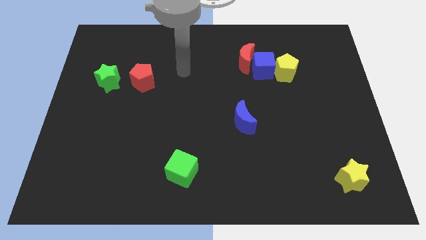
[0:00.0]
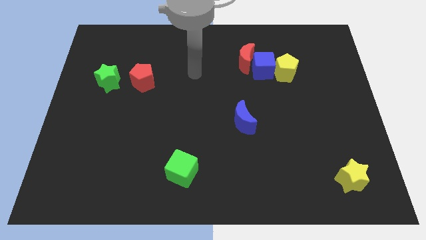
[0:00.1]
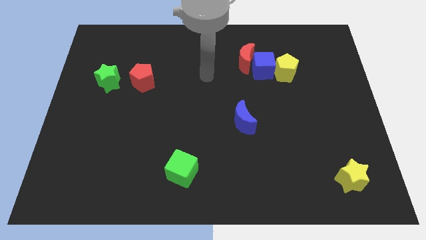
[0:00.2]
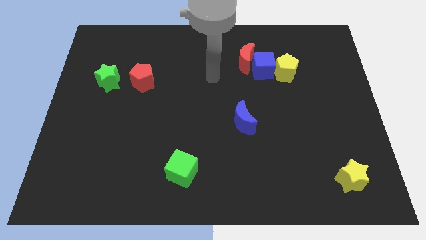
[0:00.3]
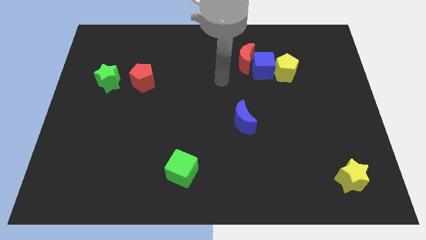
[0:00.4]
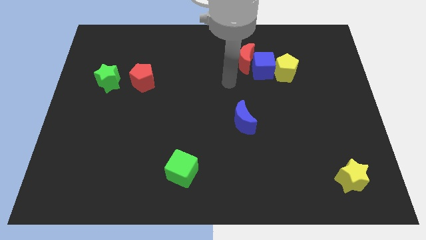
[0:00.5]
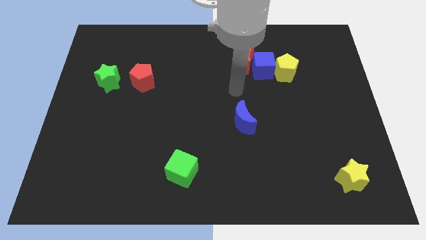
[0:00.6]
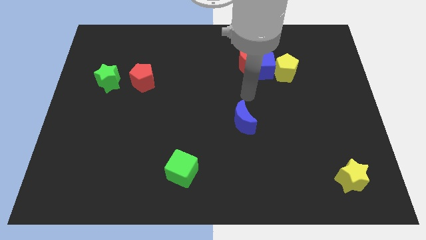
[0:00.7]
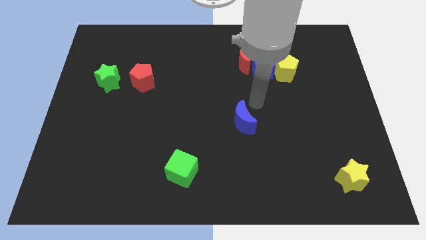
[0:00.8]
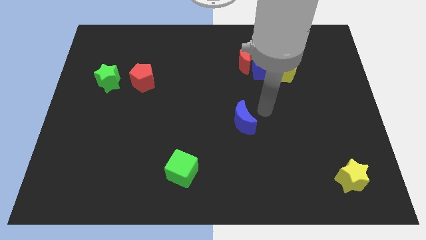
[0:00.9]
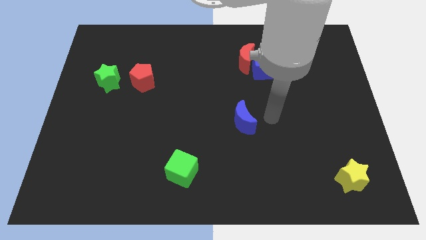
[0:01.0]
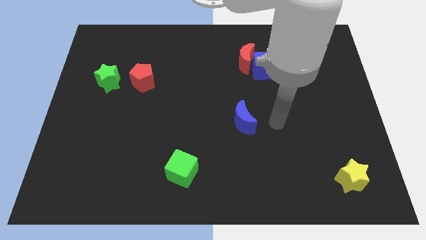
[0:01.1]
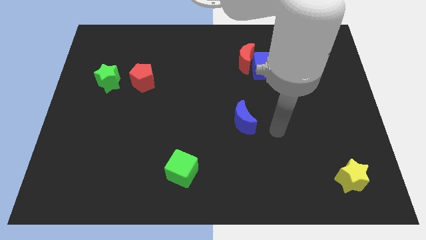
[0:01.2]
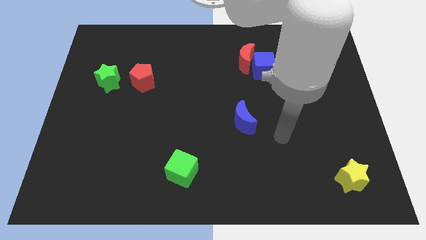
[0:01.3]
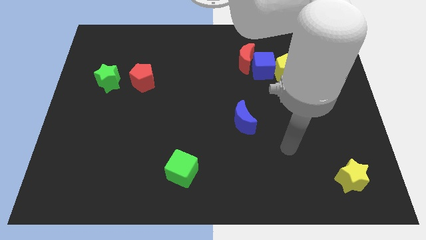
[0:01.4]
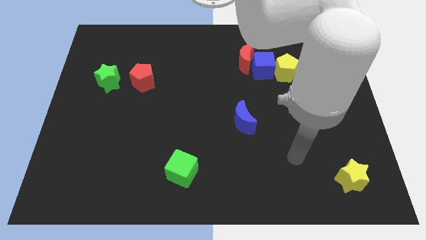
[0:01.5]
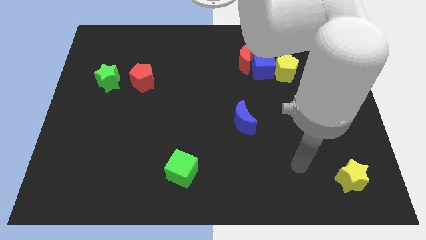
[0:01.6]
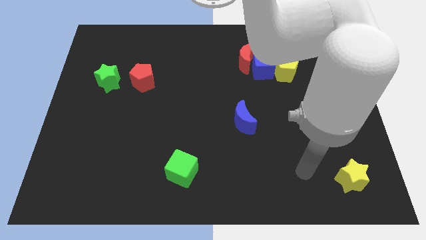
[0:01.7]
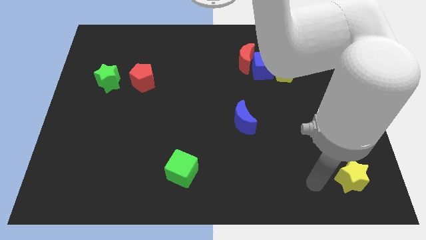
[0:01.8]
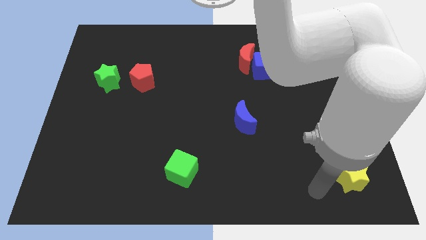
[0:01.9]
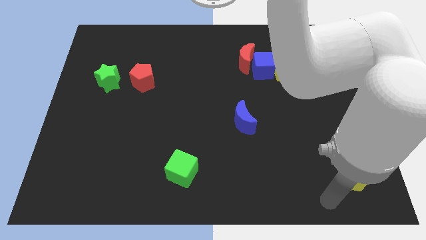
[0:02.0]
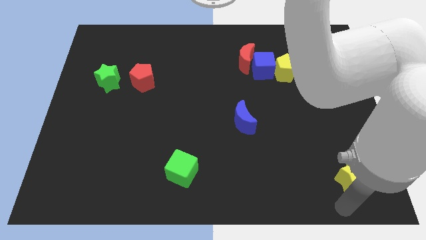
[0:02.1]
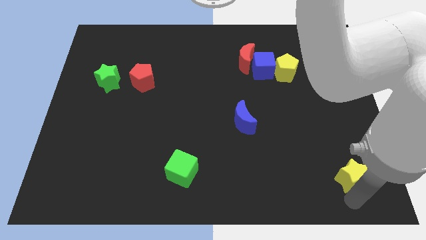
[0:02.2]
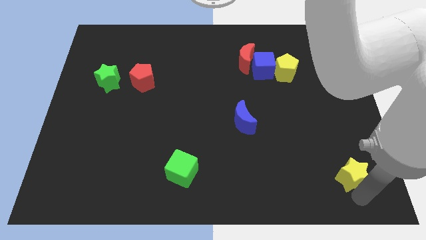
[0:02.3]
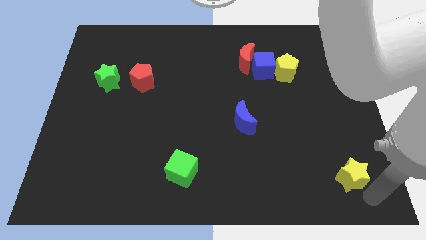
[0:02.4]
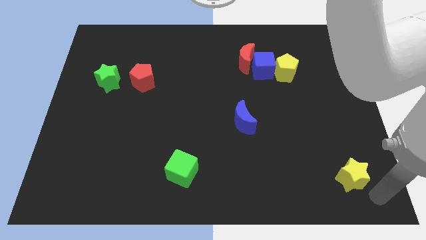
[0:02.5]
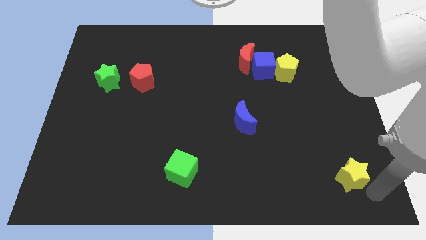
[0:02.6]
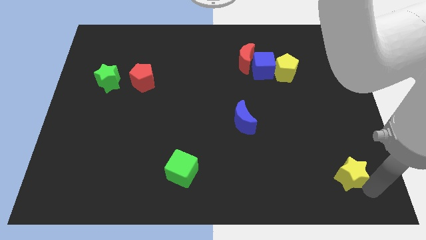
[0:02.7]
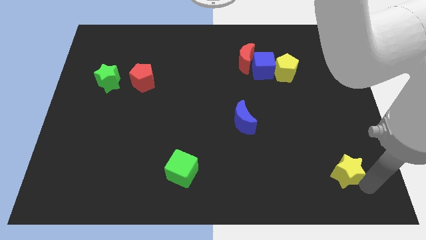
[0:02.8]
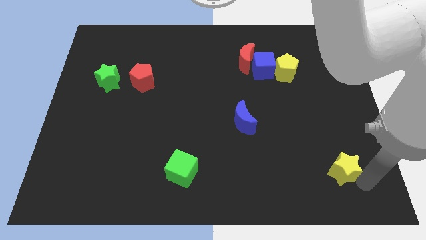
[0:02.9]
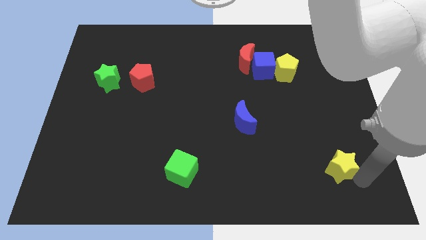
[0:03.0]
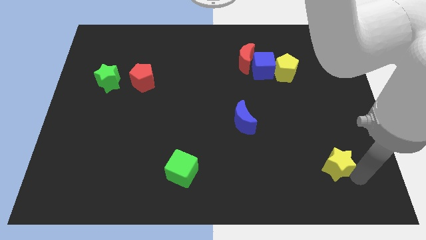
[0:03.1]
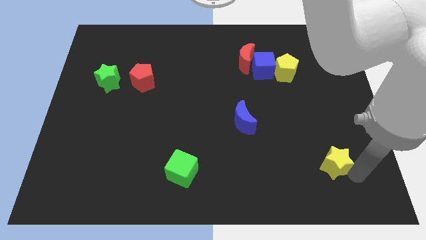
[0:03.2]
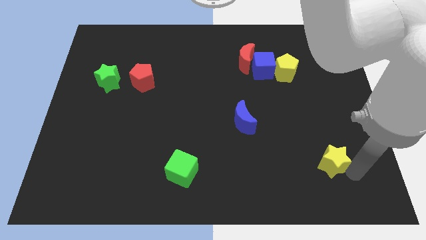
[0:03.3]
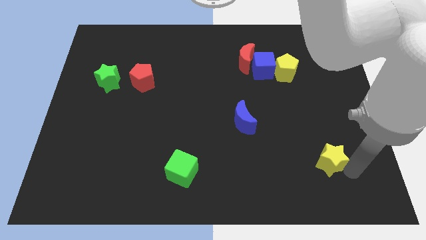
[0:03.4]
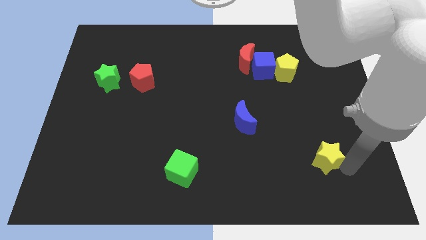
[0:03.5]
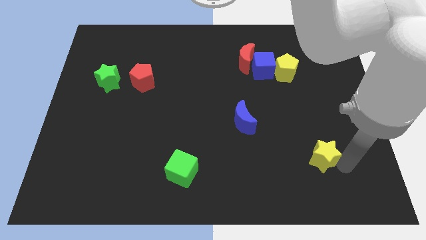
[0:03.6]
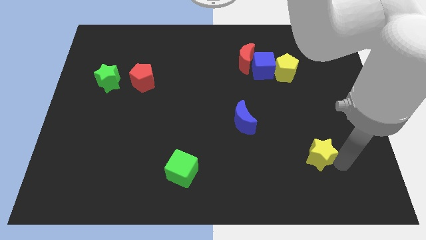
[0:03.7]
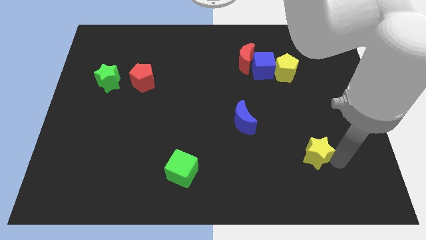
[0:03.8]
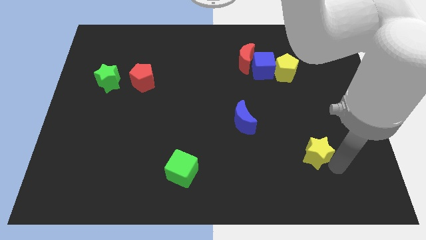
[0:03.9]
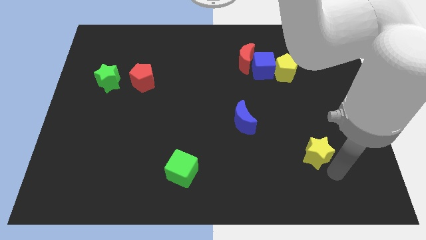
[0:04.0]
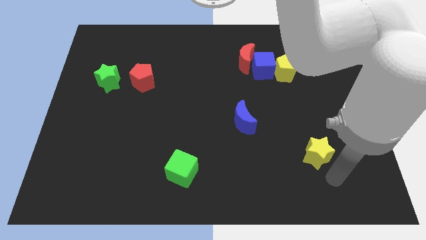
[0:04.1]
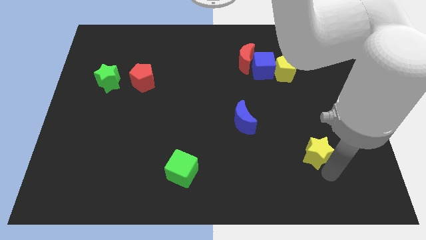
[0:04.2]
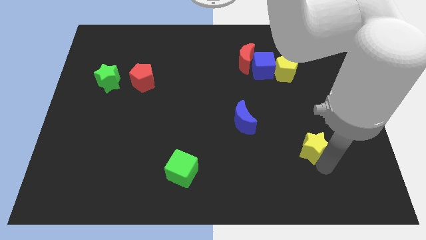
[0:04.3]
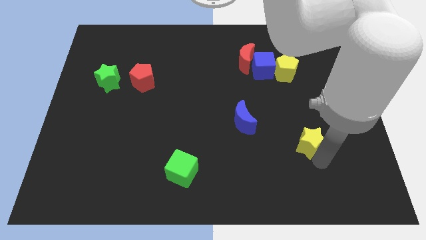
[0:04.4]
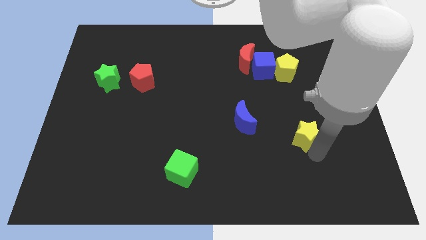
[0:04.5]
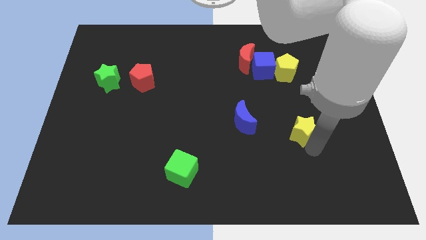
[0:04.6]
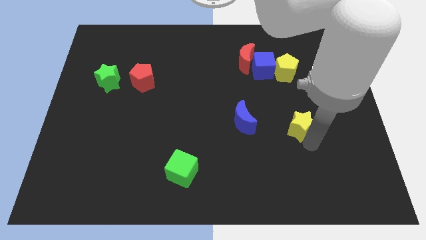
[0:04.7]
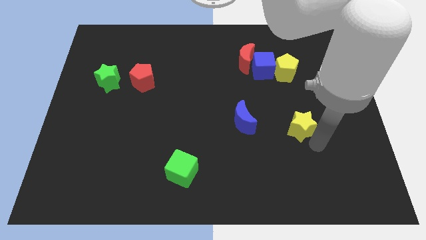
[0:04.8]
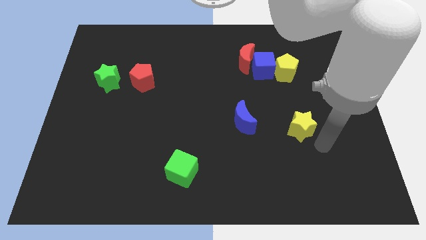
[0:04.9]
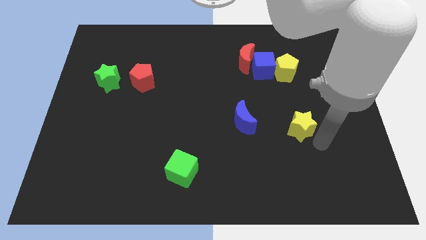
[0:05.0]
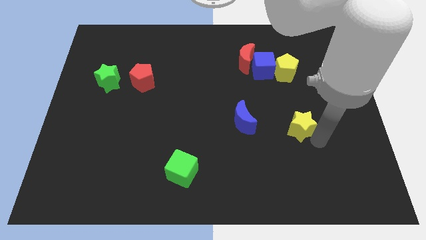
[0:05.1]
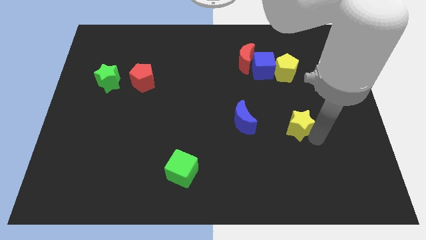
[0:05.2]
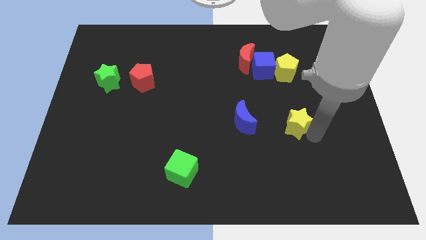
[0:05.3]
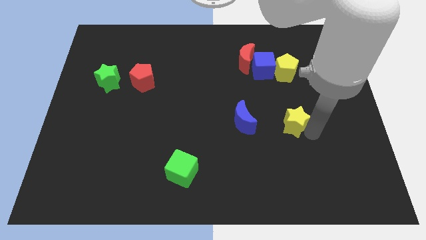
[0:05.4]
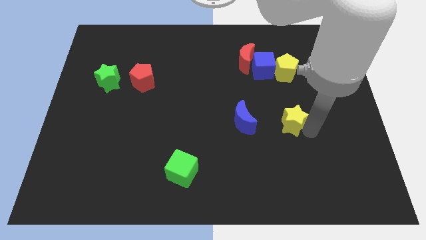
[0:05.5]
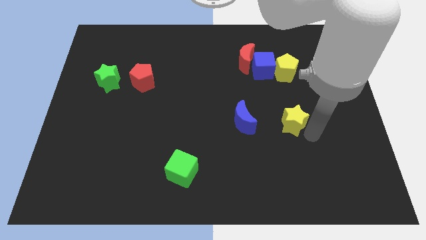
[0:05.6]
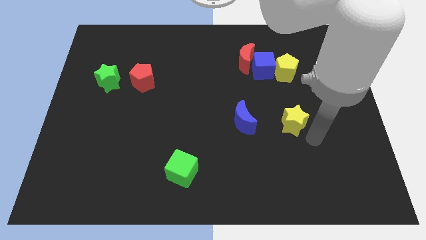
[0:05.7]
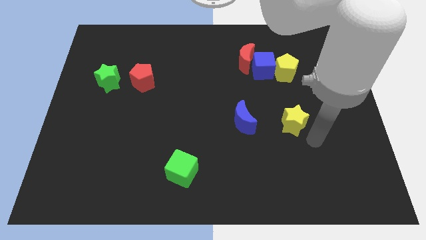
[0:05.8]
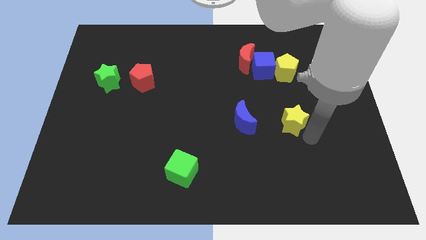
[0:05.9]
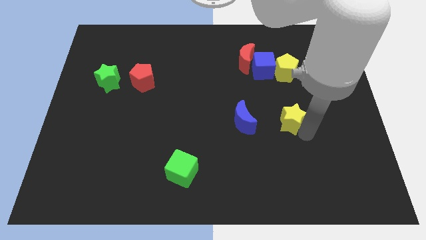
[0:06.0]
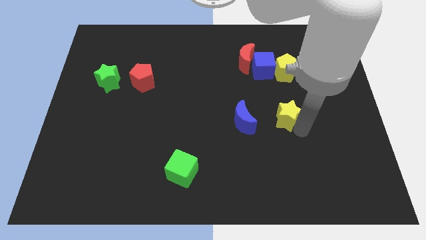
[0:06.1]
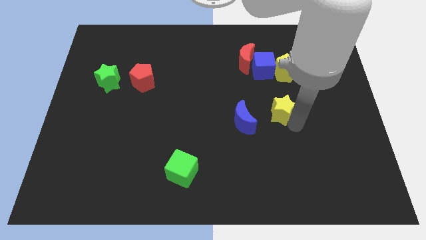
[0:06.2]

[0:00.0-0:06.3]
move the yellow star to the top right of the blue moon
